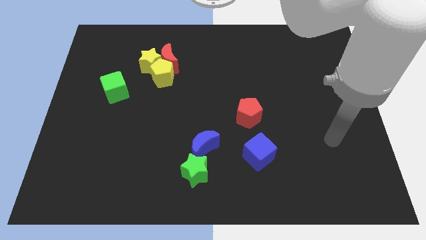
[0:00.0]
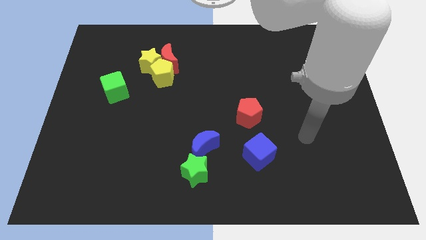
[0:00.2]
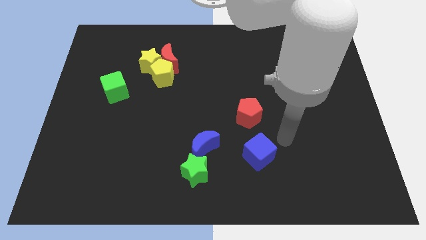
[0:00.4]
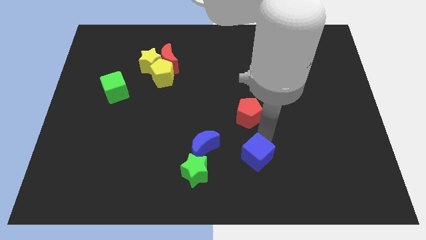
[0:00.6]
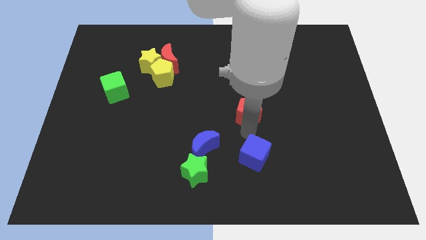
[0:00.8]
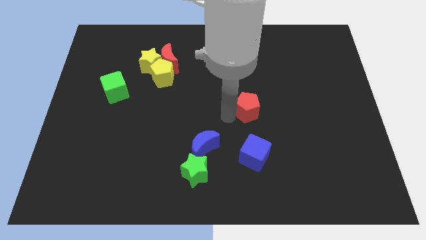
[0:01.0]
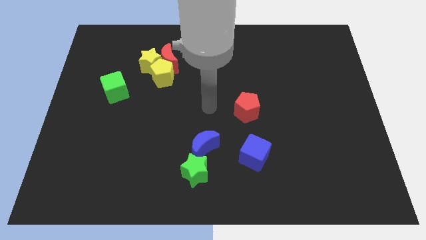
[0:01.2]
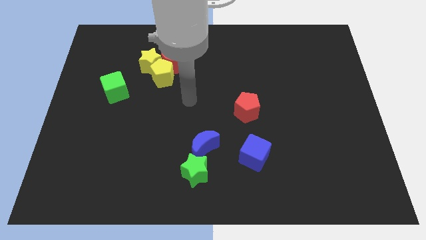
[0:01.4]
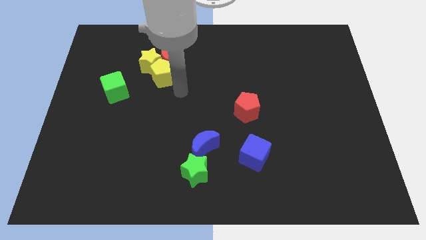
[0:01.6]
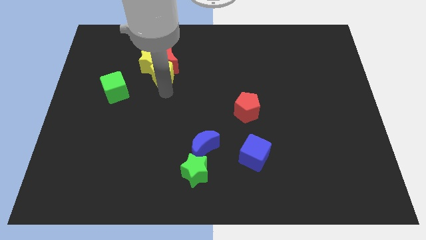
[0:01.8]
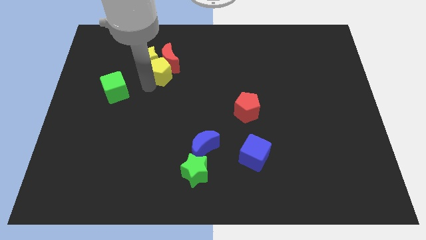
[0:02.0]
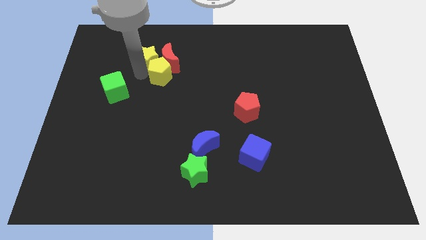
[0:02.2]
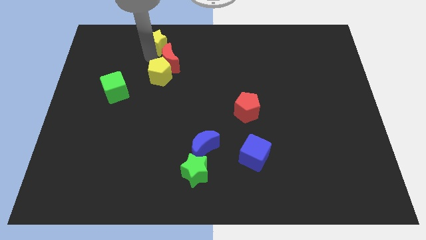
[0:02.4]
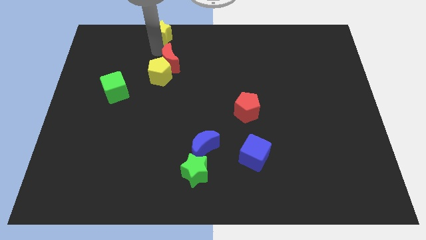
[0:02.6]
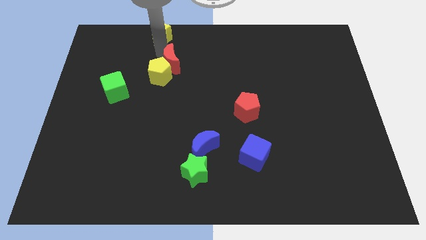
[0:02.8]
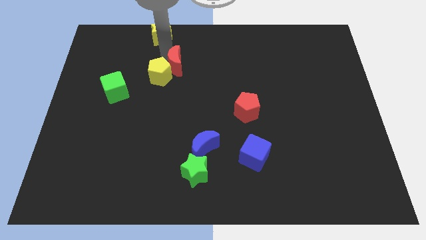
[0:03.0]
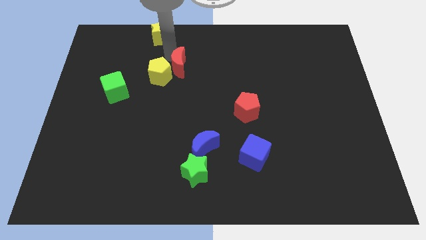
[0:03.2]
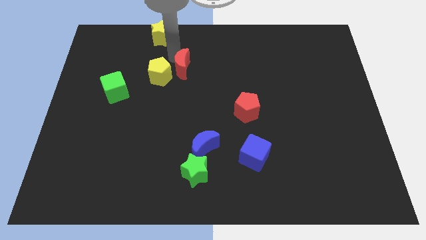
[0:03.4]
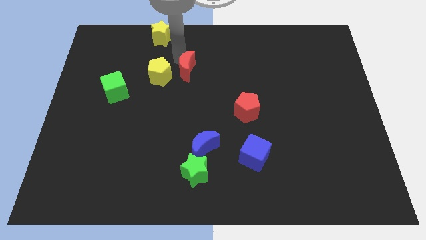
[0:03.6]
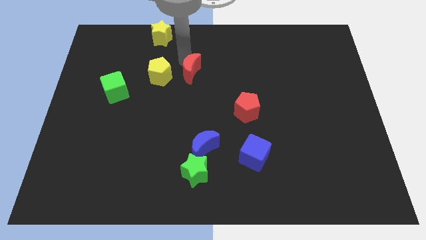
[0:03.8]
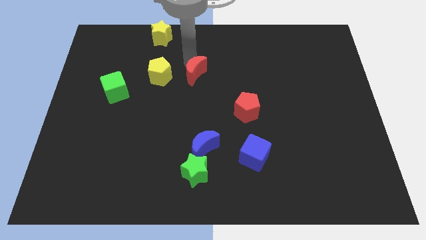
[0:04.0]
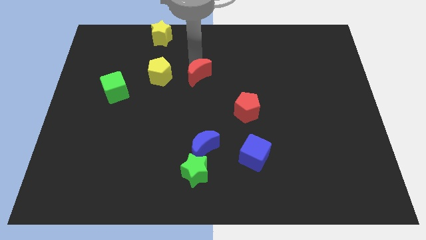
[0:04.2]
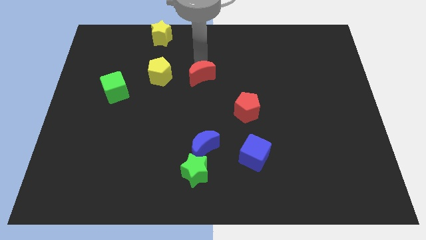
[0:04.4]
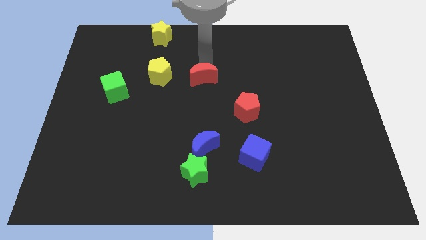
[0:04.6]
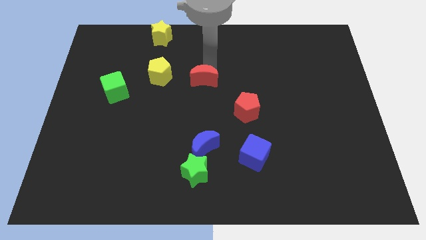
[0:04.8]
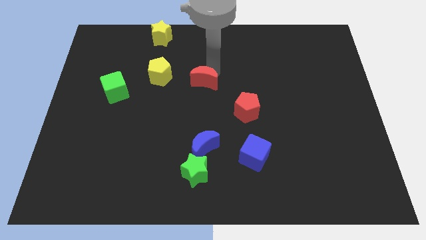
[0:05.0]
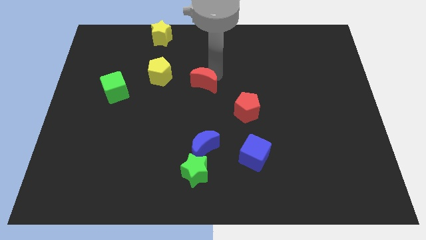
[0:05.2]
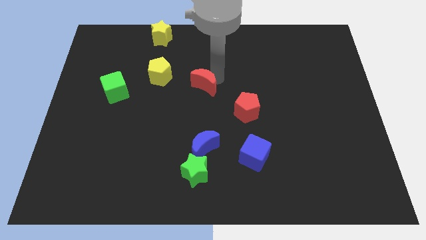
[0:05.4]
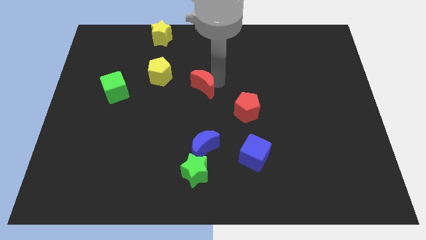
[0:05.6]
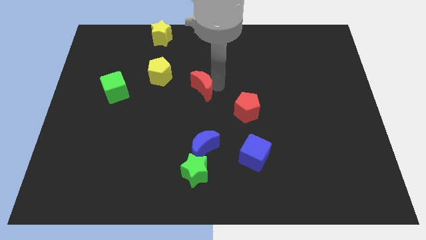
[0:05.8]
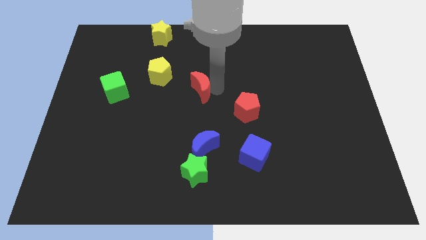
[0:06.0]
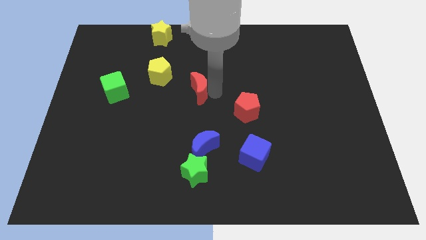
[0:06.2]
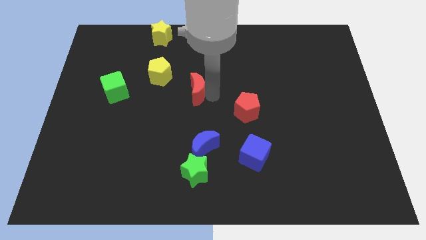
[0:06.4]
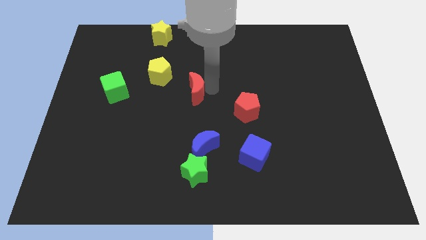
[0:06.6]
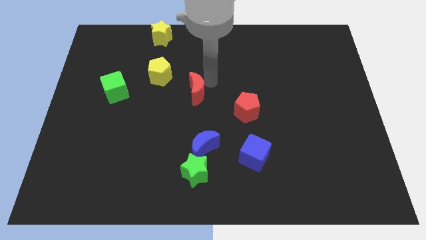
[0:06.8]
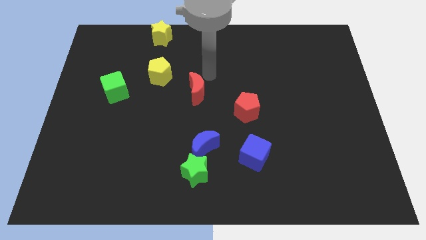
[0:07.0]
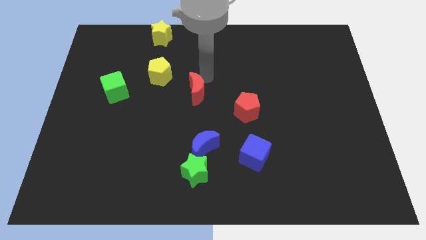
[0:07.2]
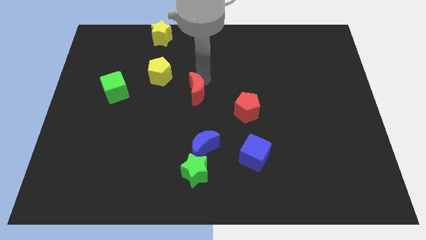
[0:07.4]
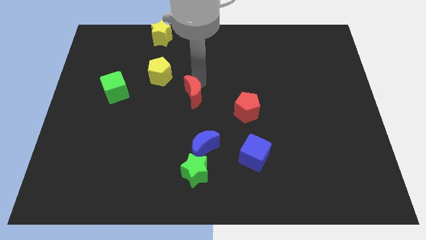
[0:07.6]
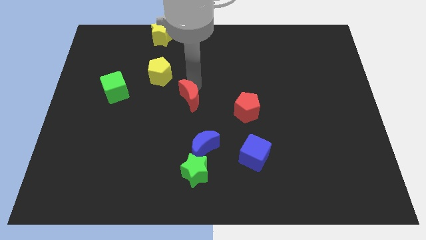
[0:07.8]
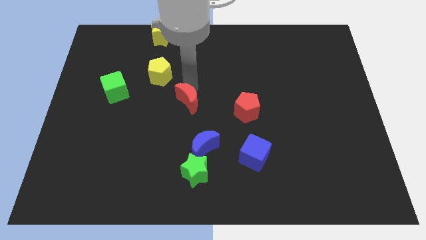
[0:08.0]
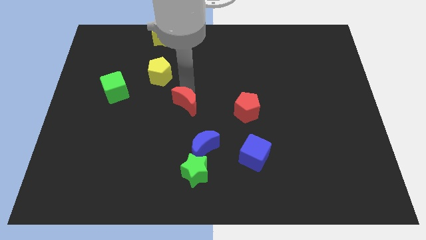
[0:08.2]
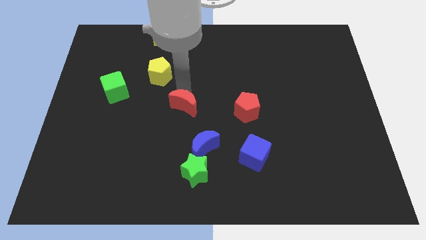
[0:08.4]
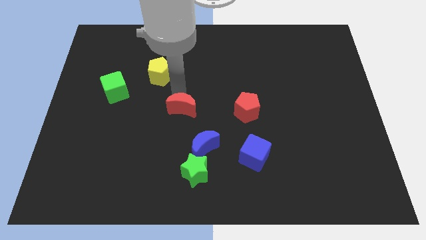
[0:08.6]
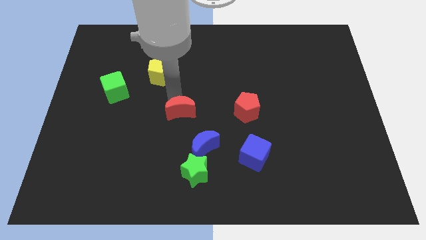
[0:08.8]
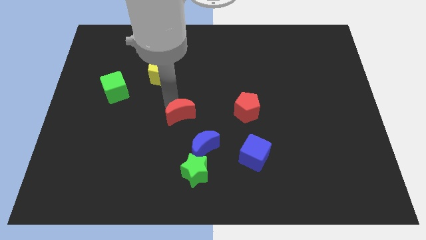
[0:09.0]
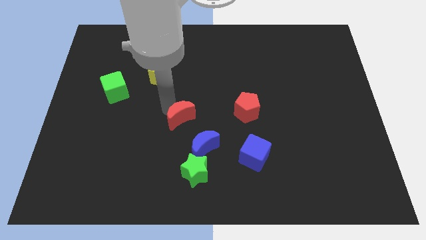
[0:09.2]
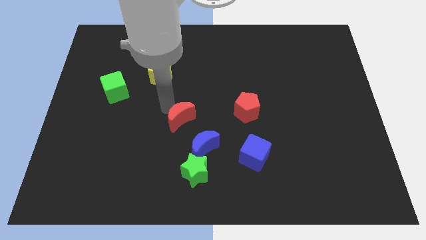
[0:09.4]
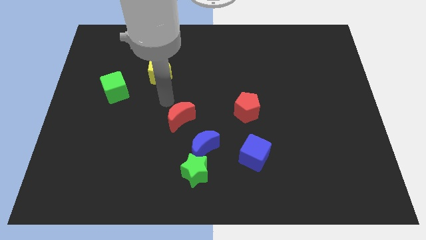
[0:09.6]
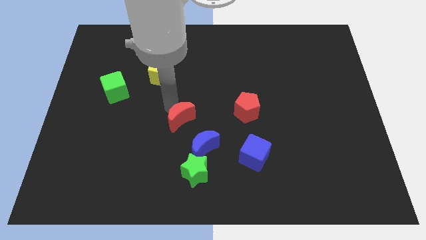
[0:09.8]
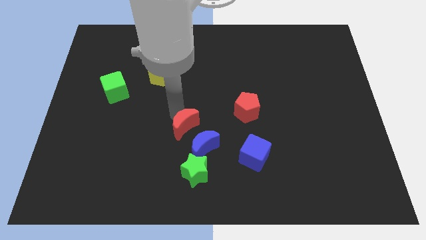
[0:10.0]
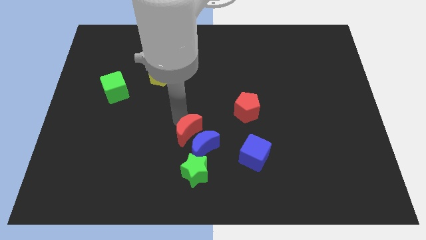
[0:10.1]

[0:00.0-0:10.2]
slide the red moon next to the blue moon

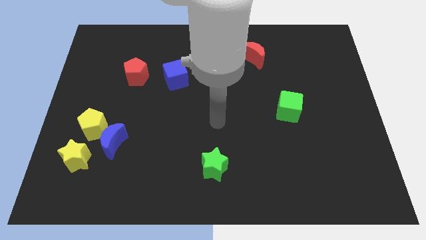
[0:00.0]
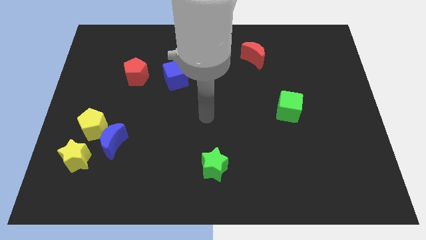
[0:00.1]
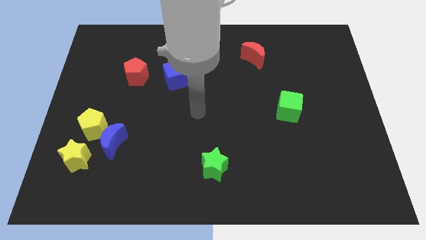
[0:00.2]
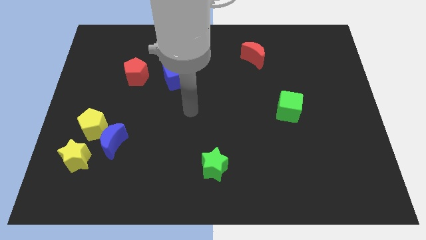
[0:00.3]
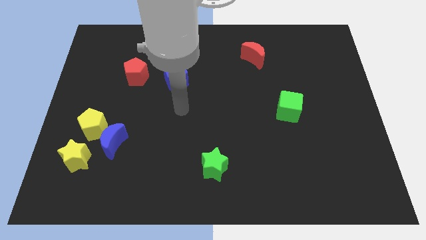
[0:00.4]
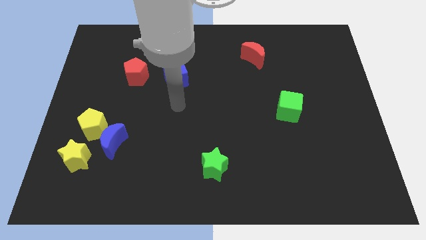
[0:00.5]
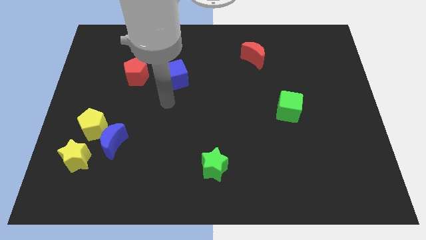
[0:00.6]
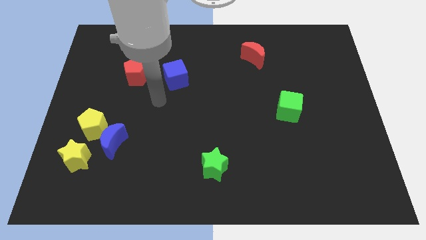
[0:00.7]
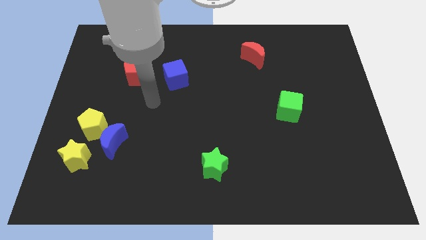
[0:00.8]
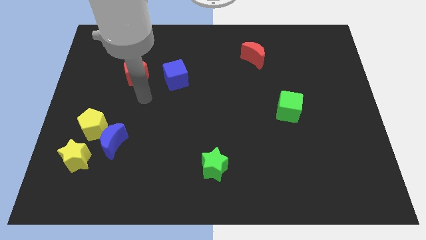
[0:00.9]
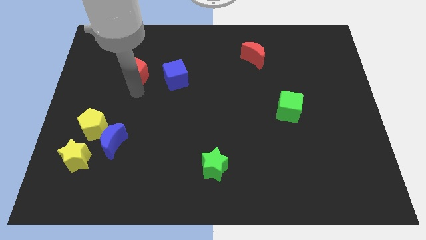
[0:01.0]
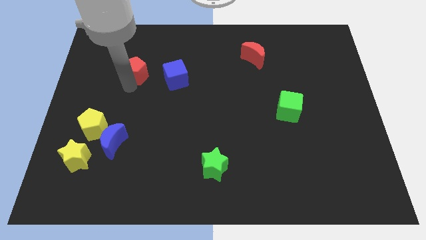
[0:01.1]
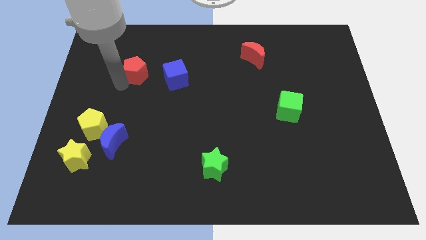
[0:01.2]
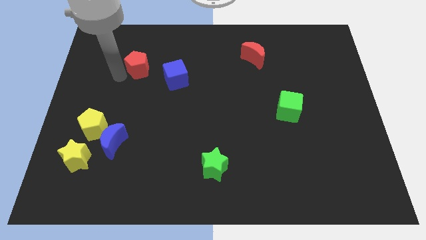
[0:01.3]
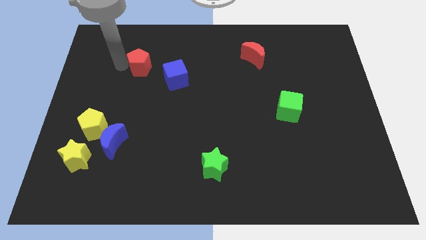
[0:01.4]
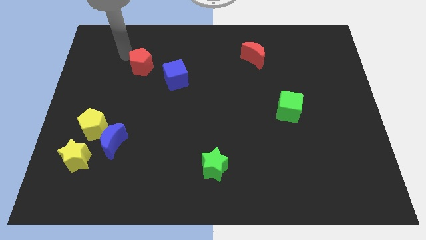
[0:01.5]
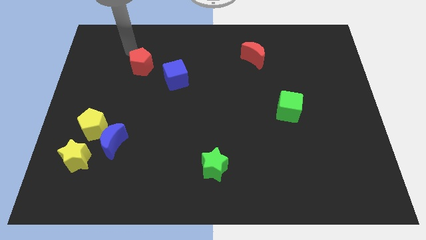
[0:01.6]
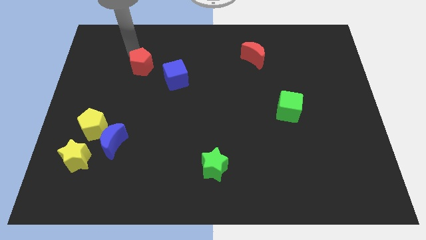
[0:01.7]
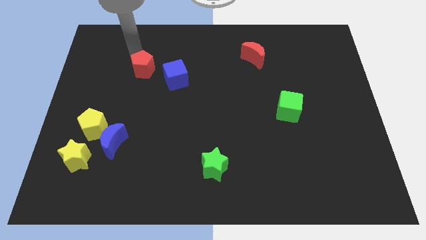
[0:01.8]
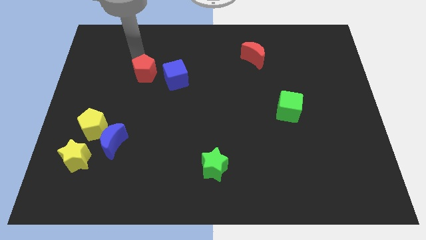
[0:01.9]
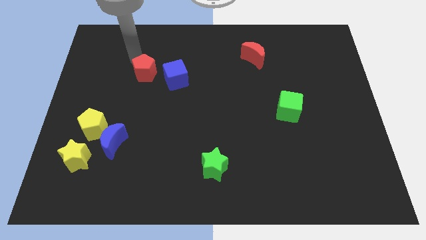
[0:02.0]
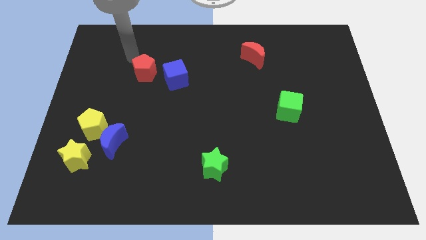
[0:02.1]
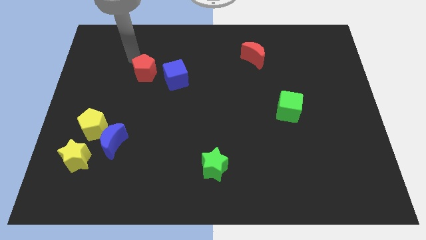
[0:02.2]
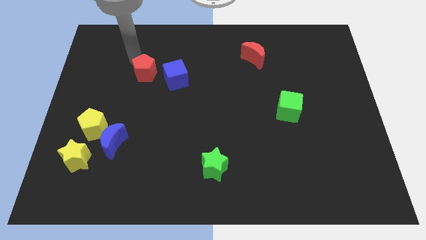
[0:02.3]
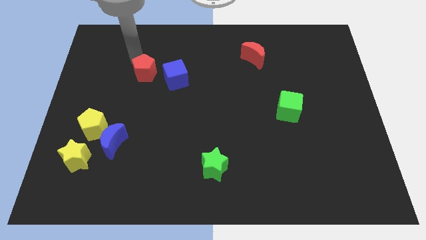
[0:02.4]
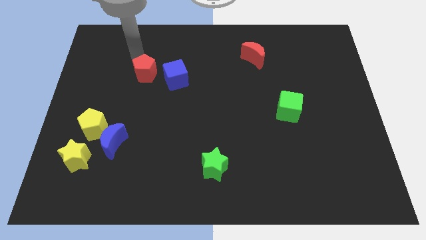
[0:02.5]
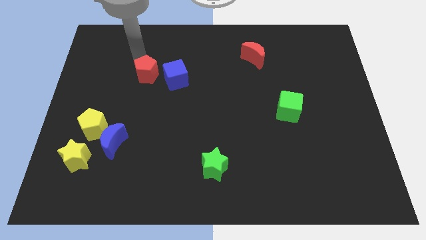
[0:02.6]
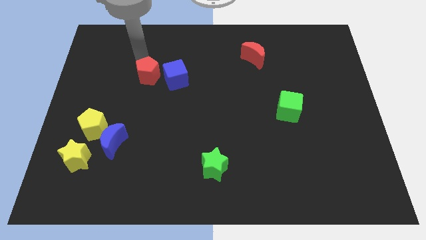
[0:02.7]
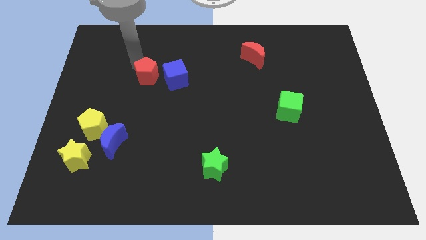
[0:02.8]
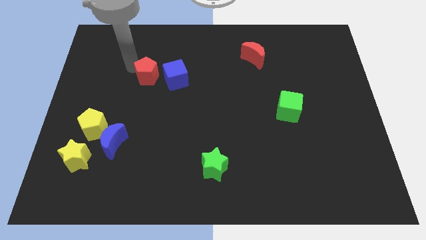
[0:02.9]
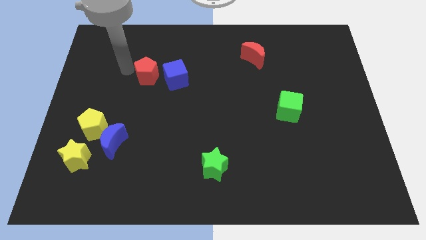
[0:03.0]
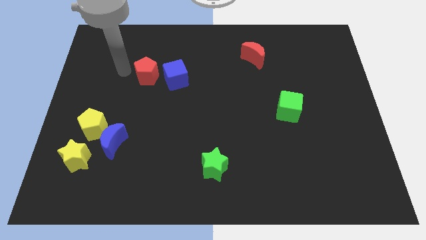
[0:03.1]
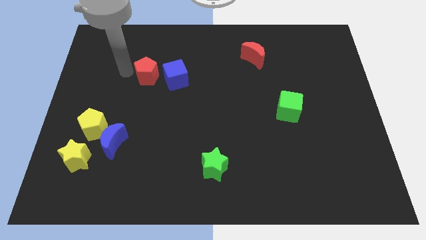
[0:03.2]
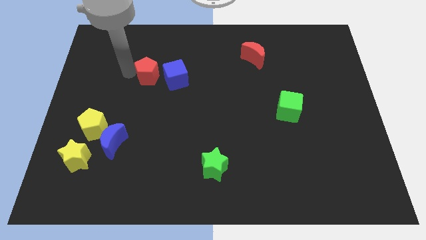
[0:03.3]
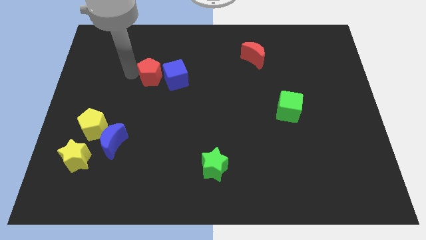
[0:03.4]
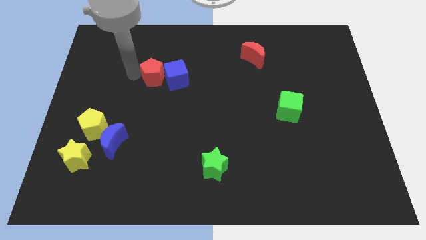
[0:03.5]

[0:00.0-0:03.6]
push the red pentagon to the blue cube
